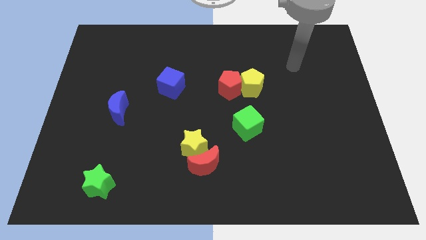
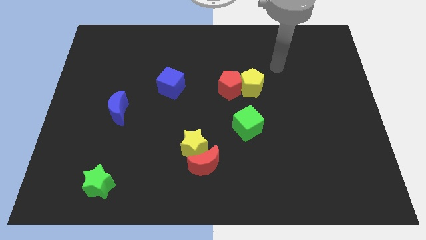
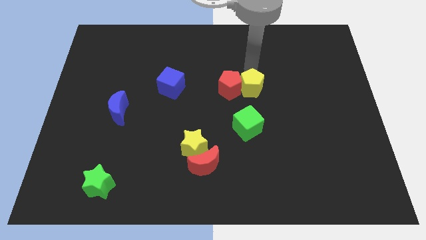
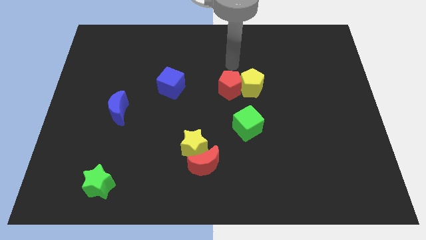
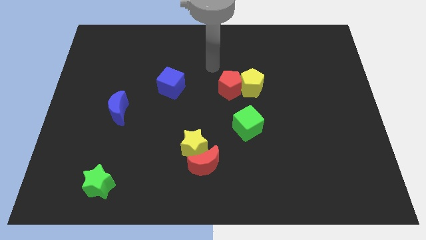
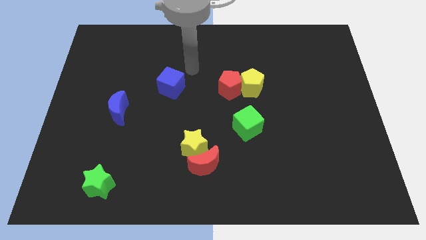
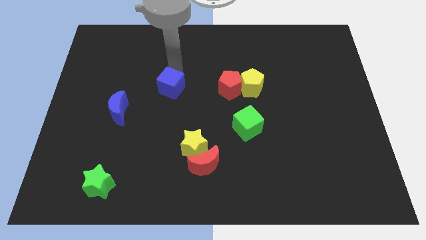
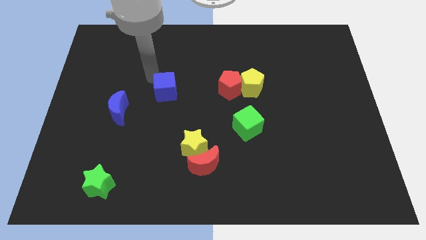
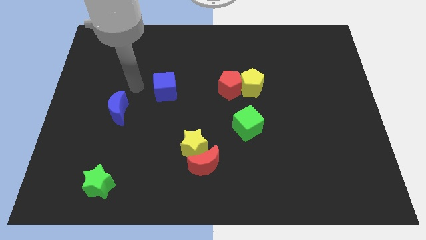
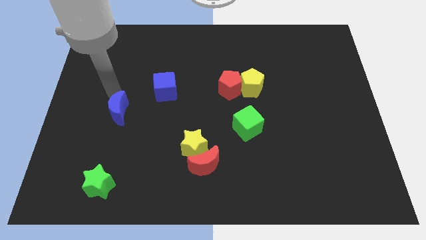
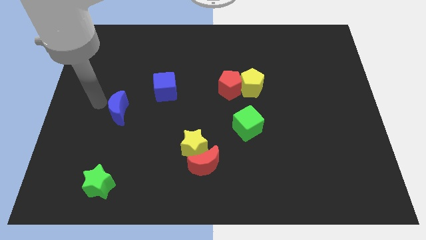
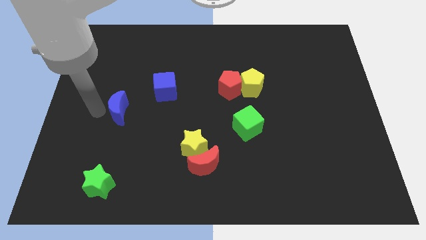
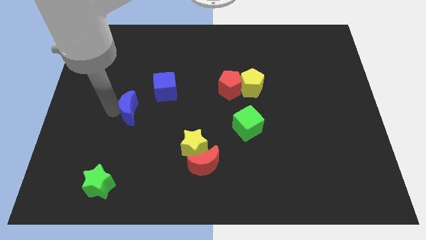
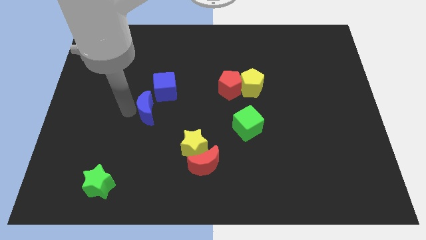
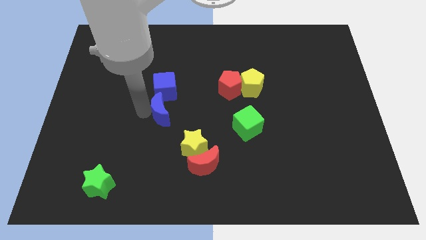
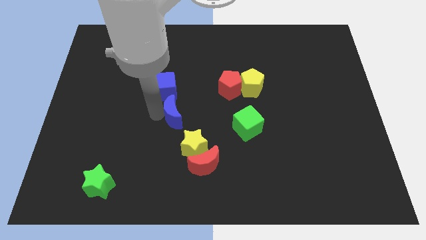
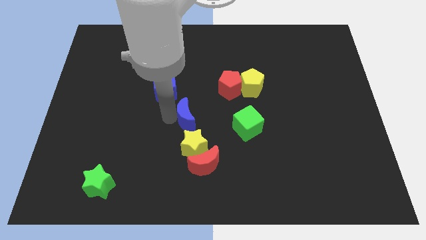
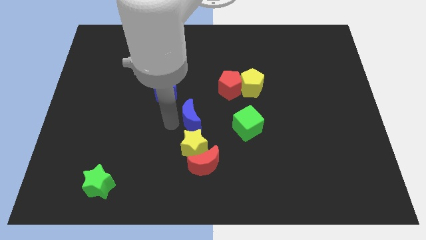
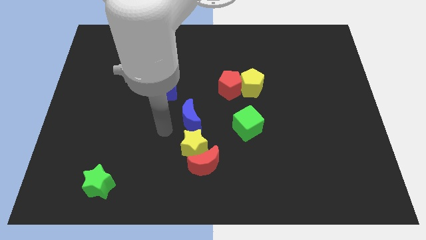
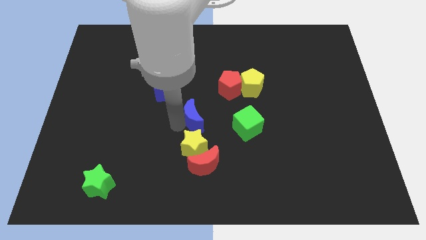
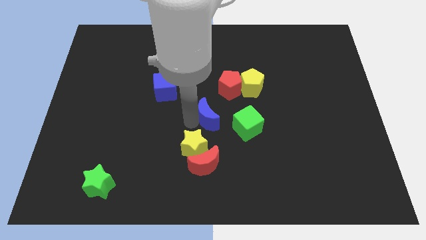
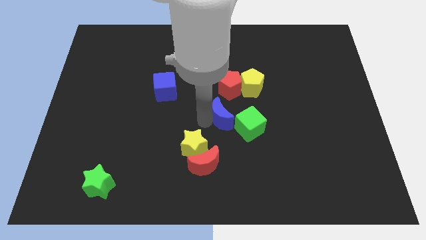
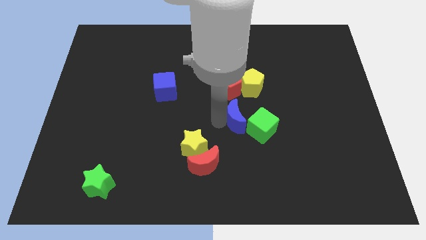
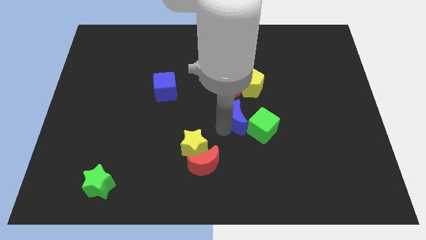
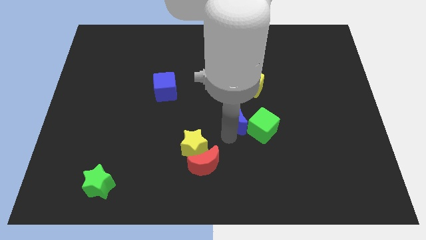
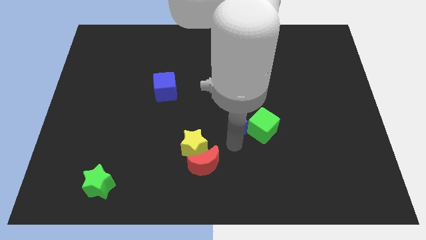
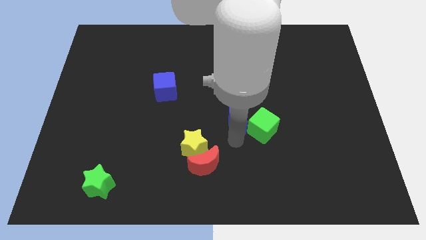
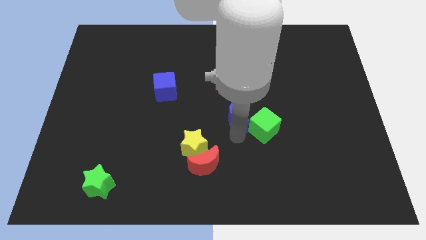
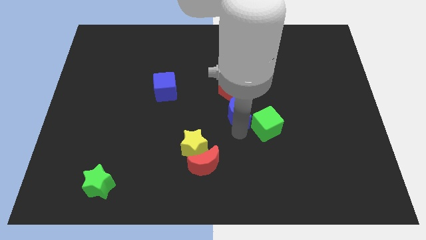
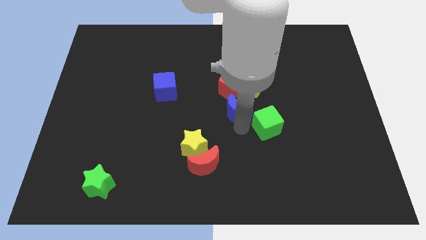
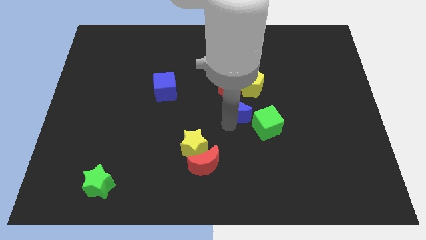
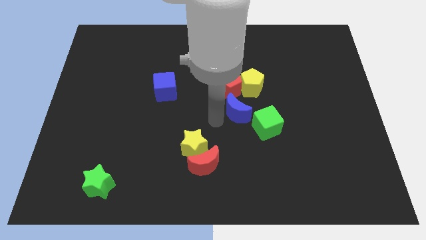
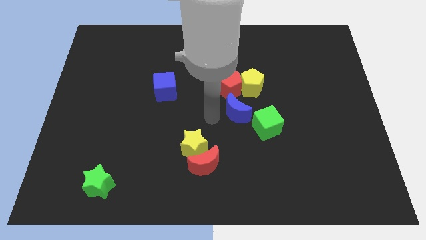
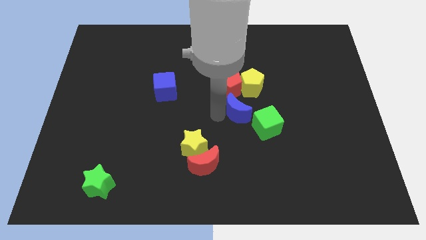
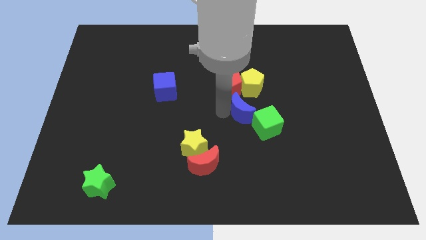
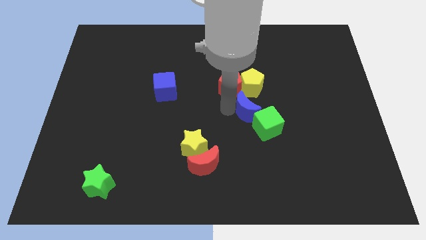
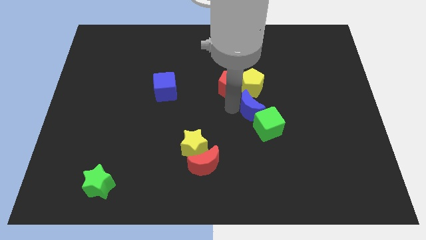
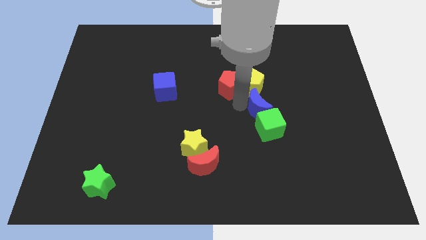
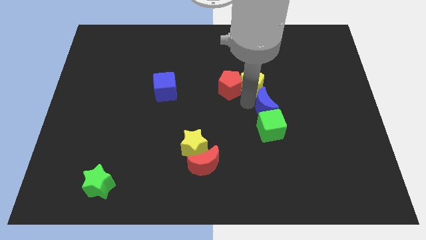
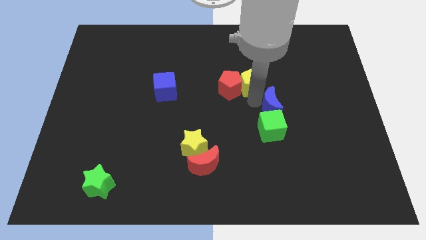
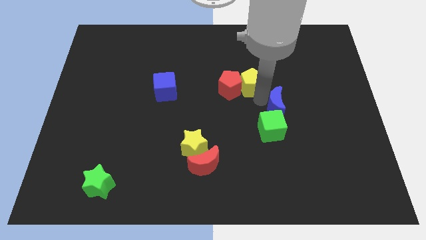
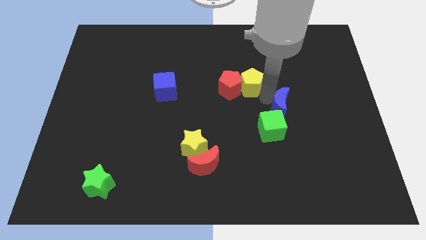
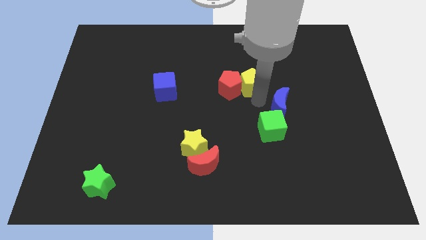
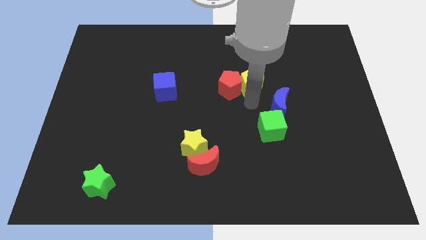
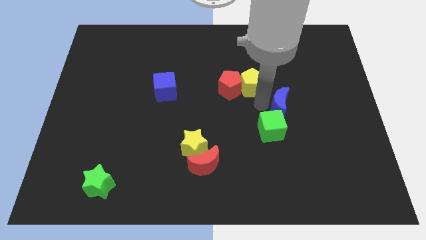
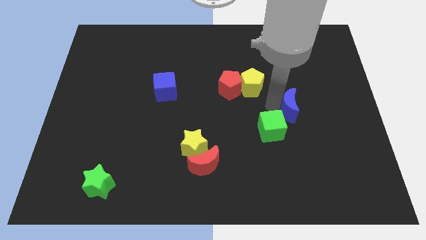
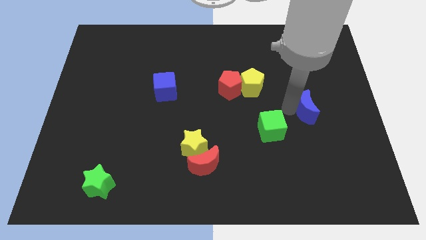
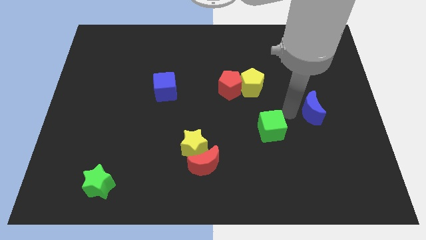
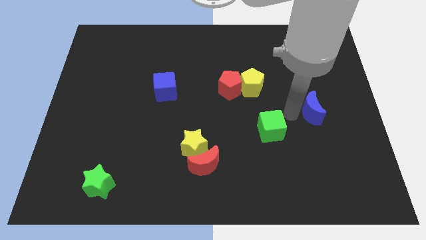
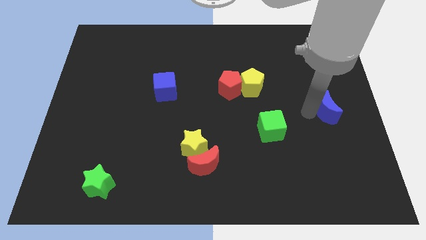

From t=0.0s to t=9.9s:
slide the blue moon to the right side
